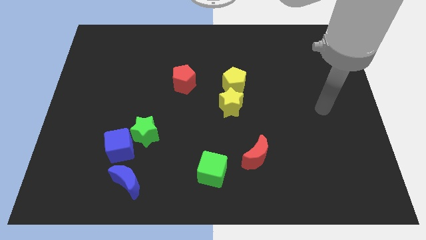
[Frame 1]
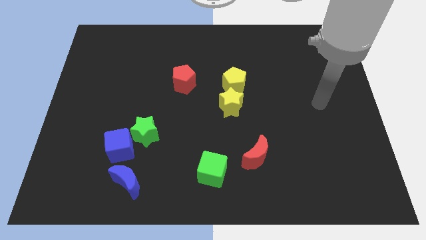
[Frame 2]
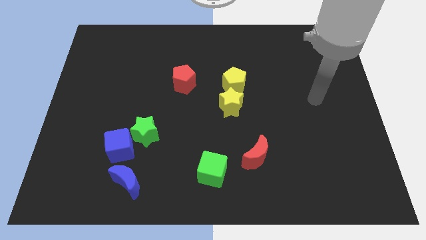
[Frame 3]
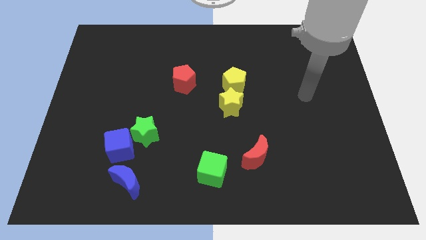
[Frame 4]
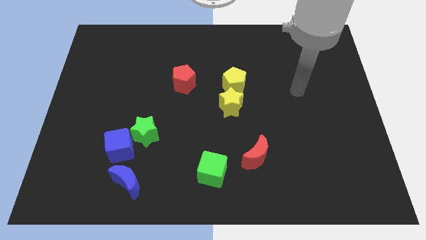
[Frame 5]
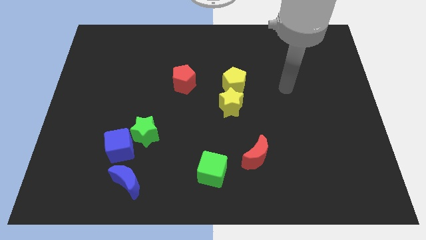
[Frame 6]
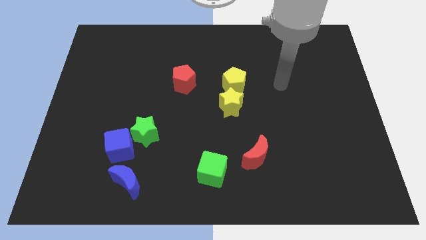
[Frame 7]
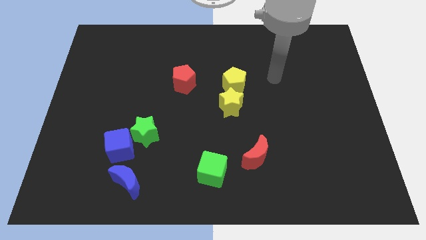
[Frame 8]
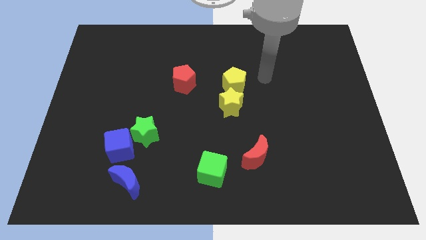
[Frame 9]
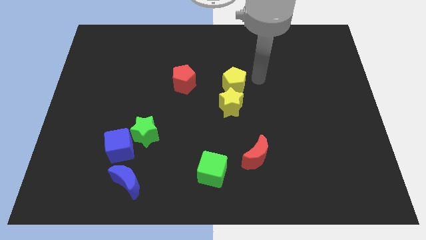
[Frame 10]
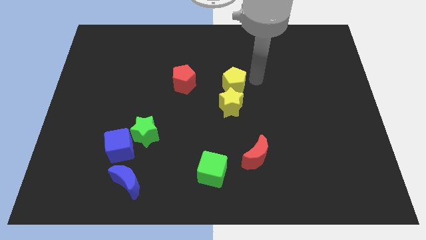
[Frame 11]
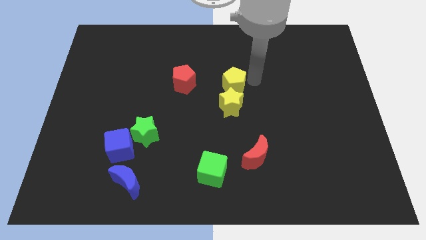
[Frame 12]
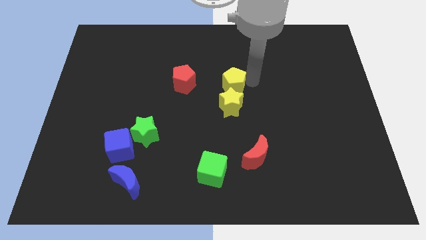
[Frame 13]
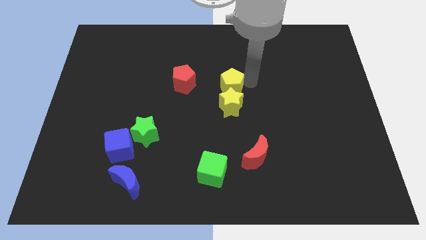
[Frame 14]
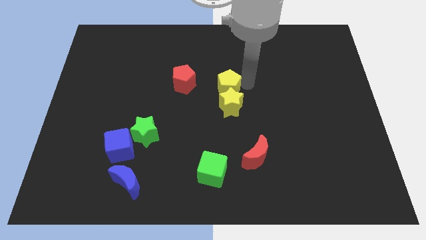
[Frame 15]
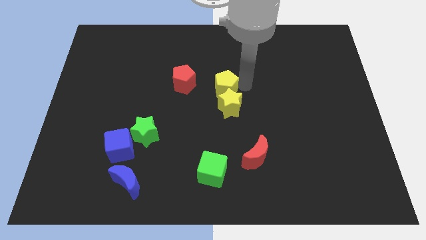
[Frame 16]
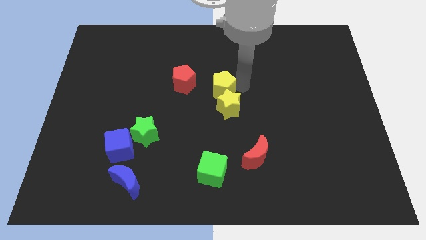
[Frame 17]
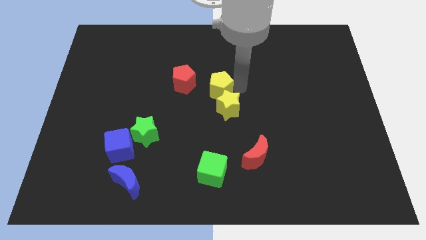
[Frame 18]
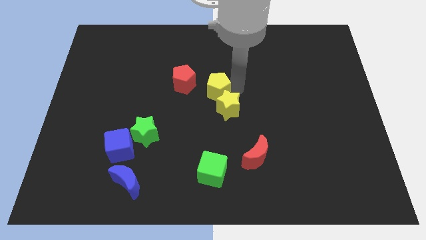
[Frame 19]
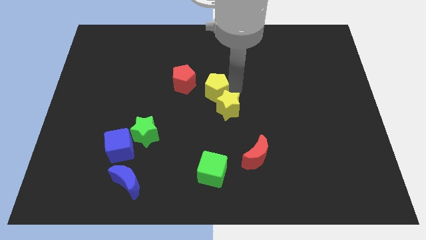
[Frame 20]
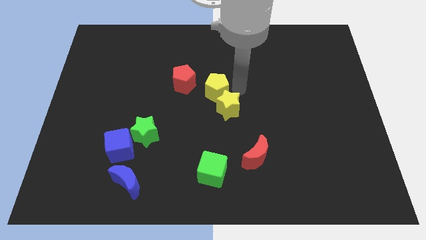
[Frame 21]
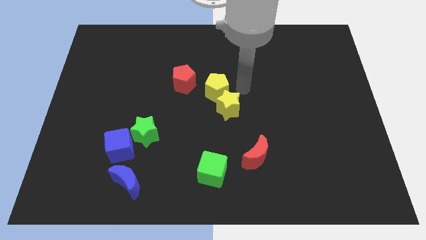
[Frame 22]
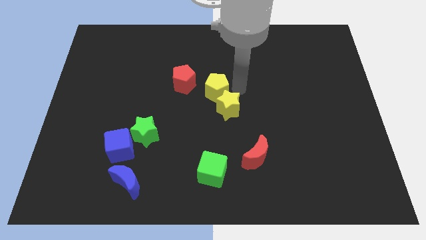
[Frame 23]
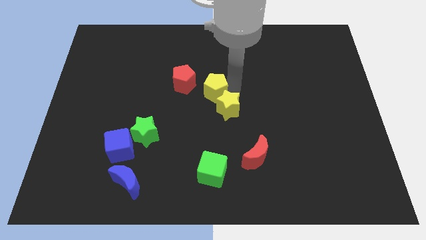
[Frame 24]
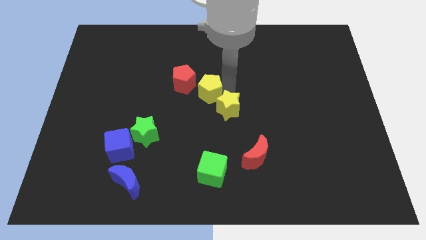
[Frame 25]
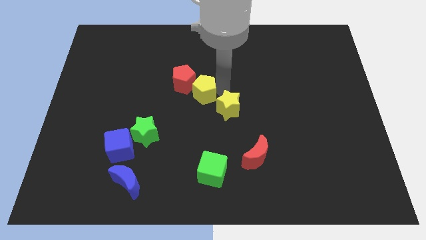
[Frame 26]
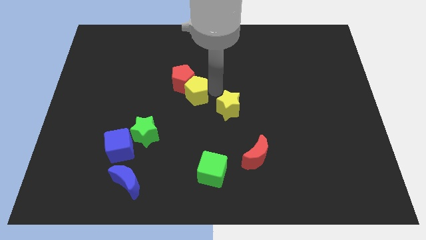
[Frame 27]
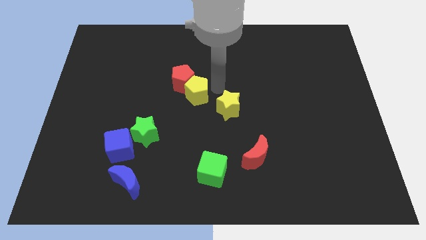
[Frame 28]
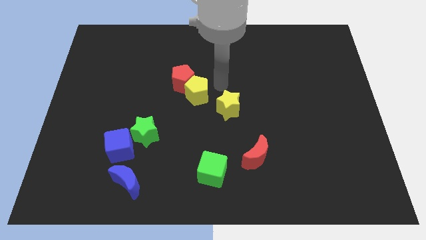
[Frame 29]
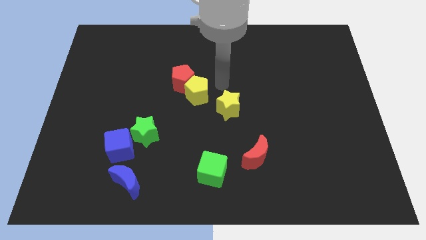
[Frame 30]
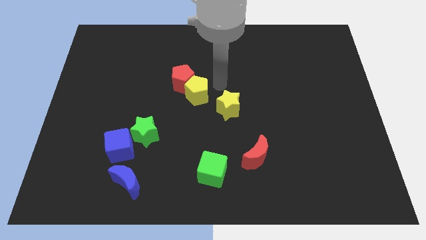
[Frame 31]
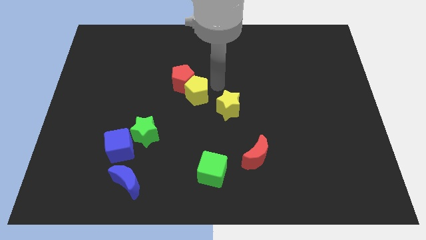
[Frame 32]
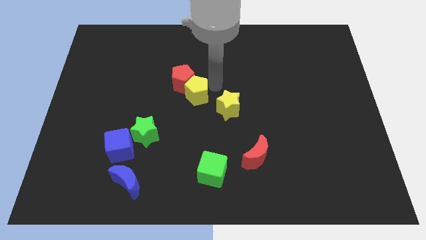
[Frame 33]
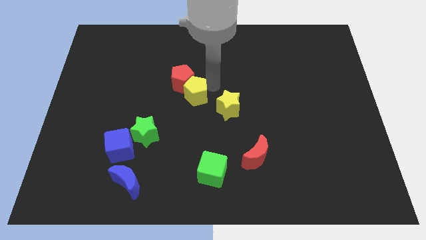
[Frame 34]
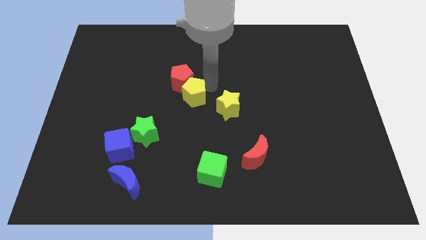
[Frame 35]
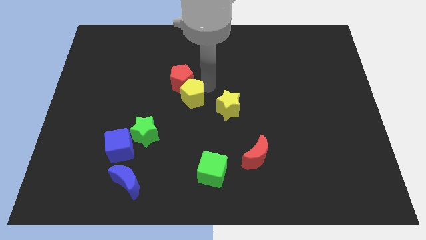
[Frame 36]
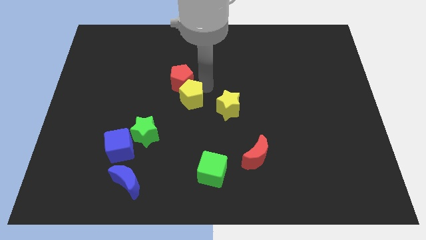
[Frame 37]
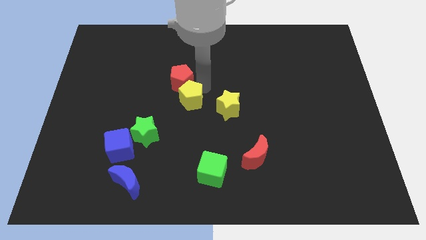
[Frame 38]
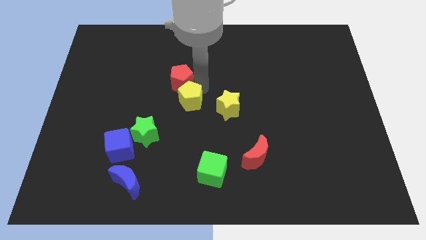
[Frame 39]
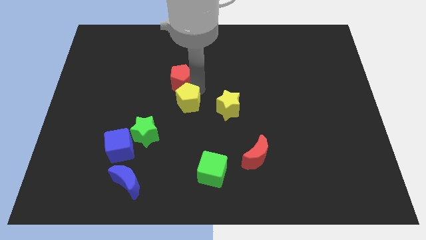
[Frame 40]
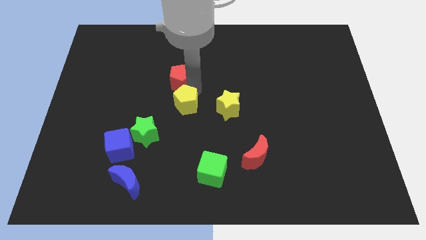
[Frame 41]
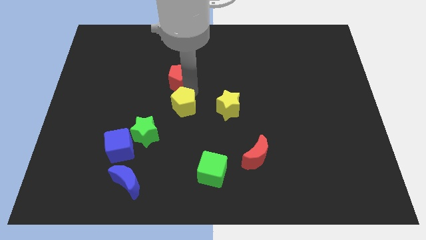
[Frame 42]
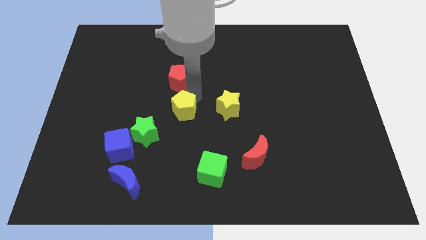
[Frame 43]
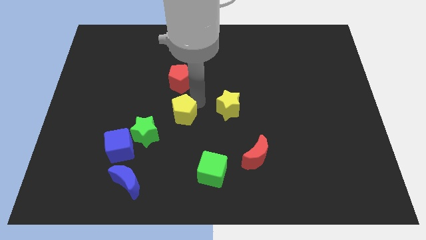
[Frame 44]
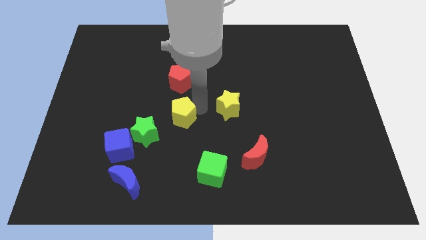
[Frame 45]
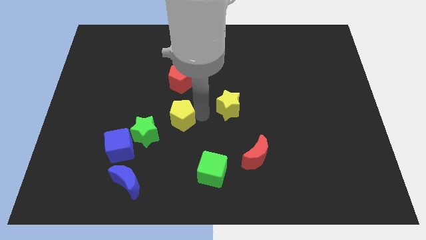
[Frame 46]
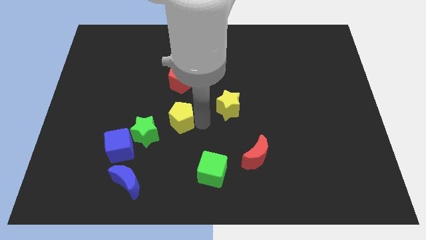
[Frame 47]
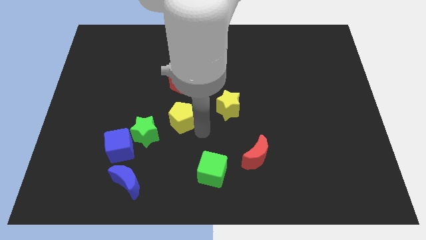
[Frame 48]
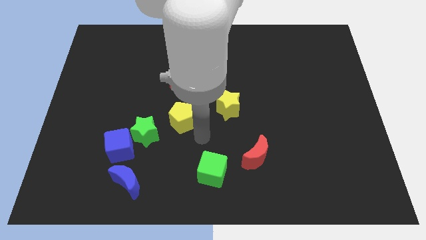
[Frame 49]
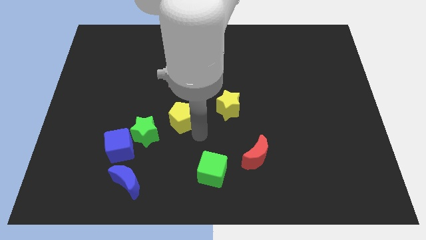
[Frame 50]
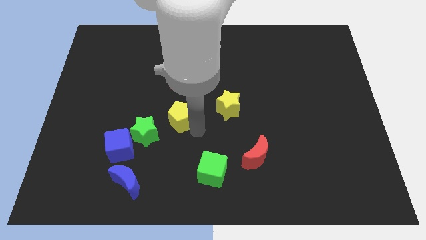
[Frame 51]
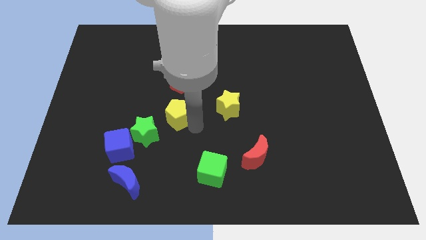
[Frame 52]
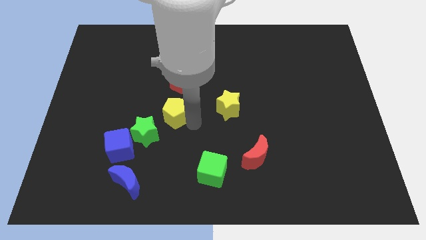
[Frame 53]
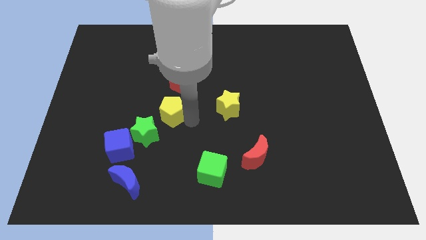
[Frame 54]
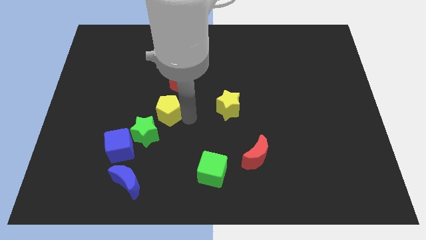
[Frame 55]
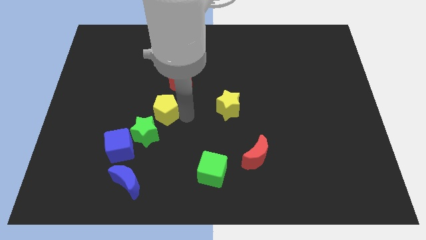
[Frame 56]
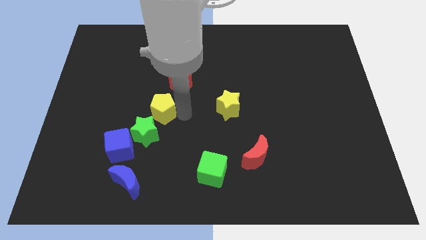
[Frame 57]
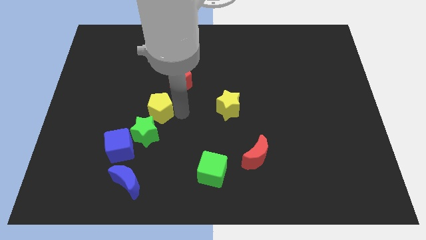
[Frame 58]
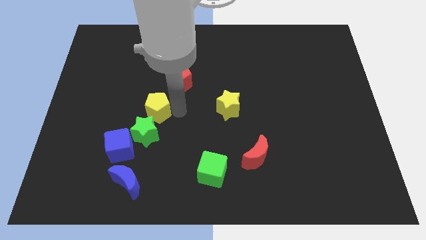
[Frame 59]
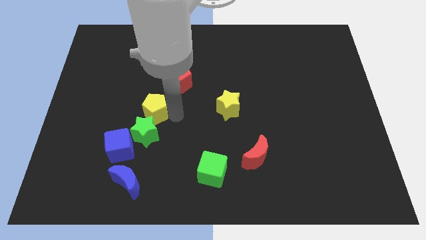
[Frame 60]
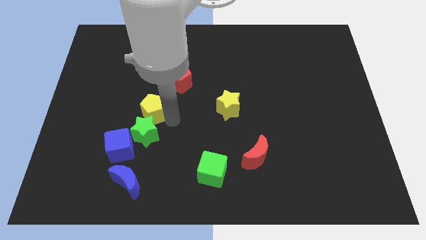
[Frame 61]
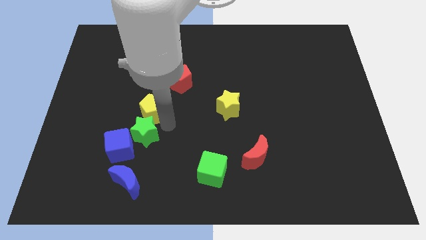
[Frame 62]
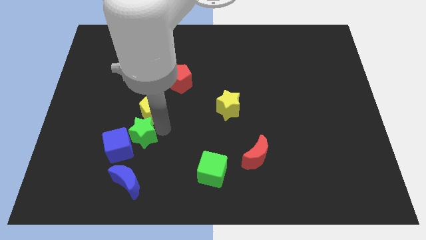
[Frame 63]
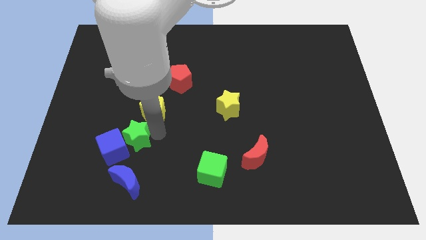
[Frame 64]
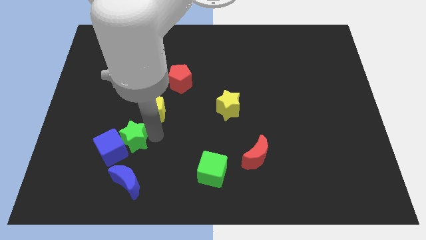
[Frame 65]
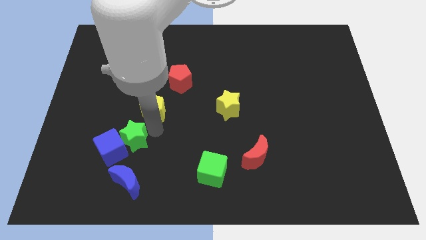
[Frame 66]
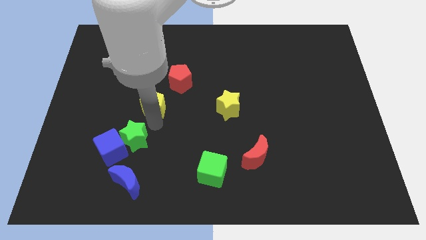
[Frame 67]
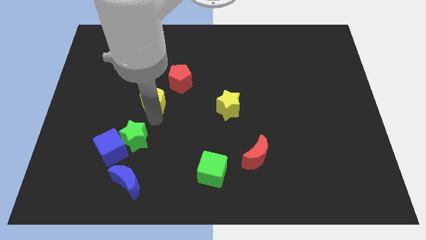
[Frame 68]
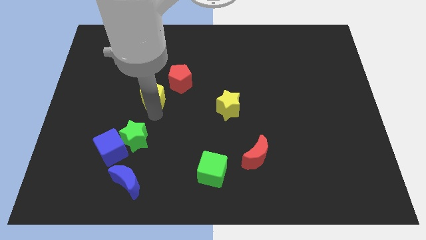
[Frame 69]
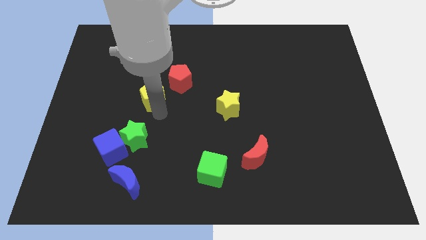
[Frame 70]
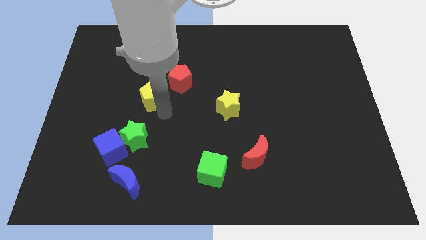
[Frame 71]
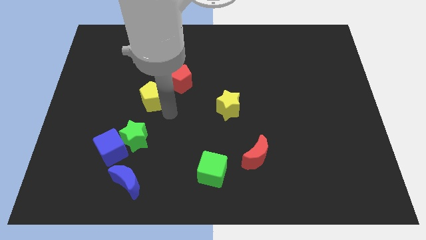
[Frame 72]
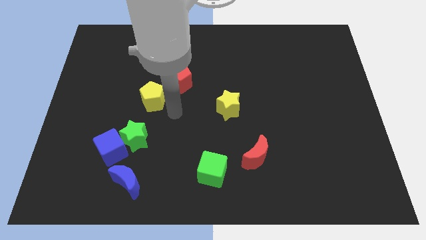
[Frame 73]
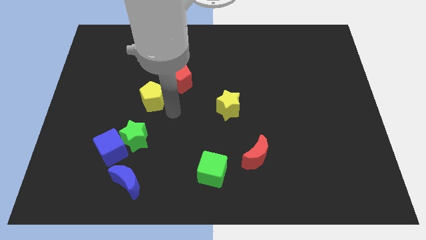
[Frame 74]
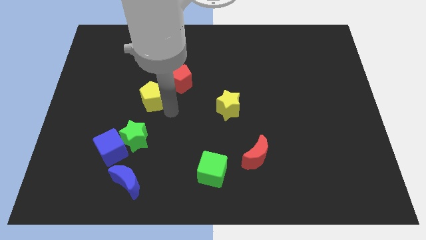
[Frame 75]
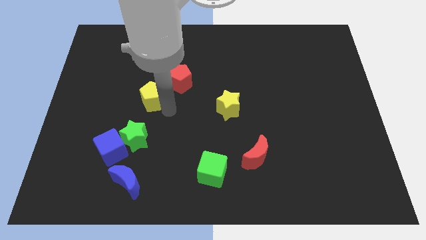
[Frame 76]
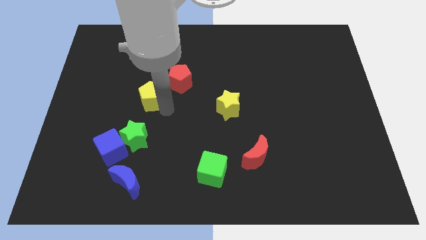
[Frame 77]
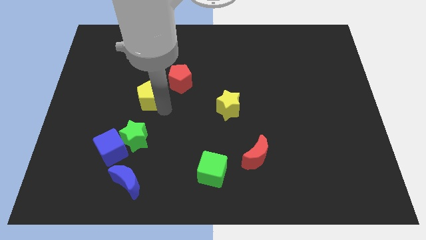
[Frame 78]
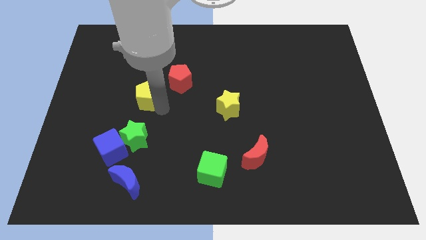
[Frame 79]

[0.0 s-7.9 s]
push the yellow pentagon left

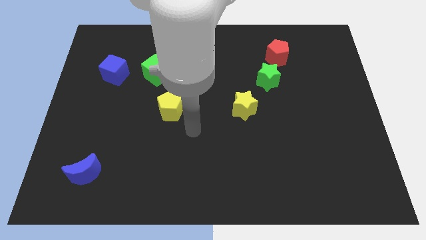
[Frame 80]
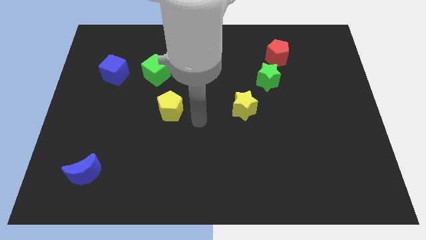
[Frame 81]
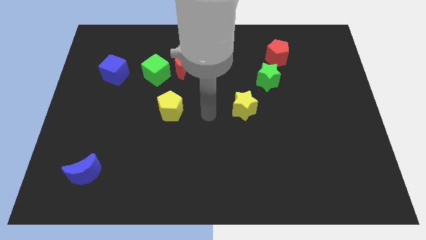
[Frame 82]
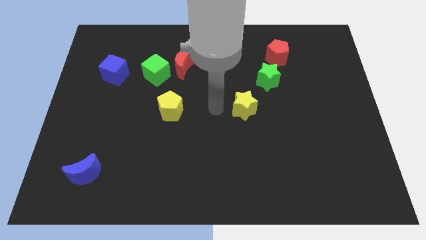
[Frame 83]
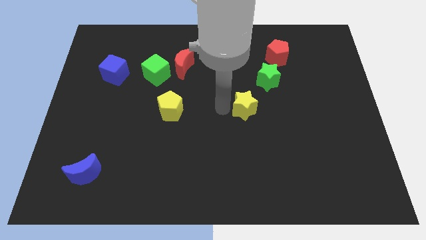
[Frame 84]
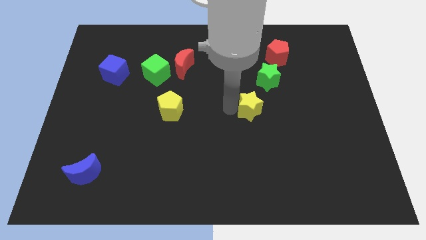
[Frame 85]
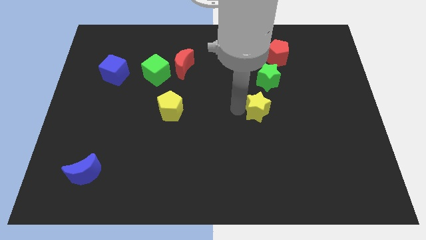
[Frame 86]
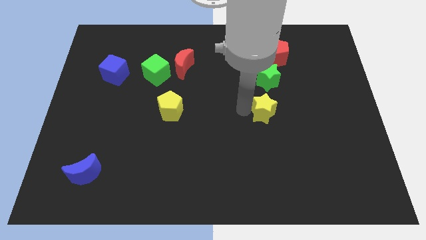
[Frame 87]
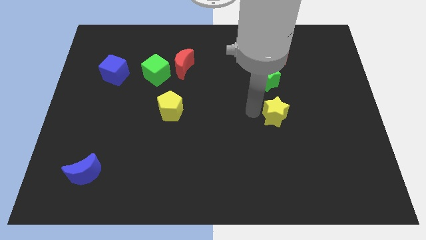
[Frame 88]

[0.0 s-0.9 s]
move the yellow star right slightly
